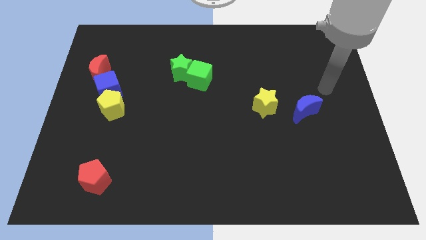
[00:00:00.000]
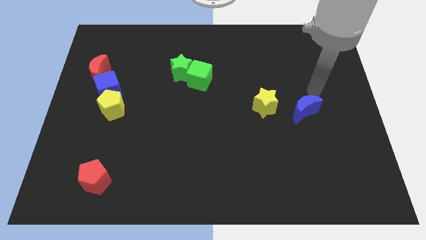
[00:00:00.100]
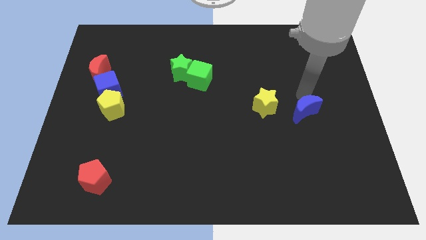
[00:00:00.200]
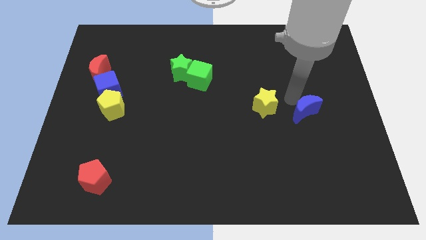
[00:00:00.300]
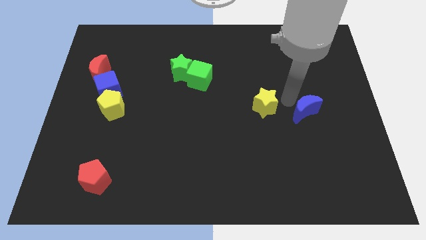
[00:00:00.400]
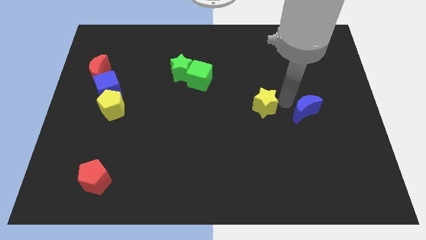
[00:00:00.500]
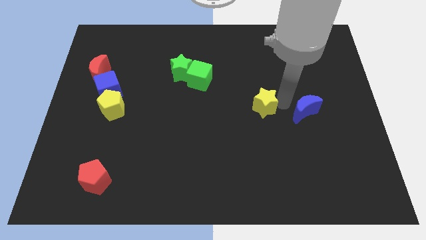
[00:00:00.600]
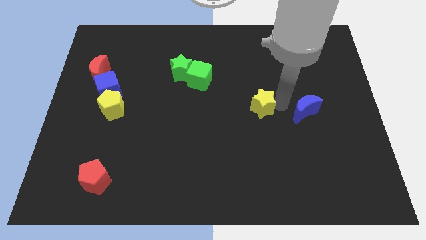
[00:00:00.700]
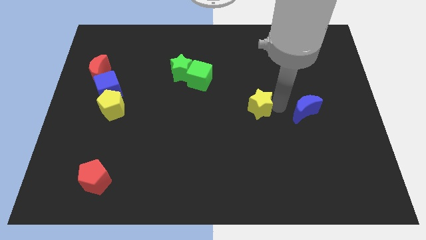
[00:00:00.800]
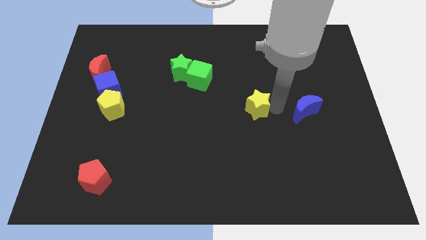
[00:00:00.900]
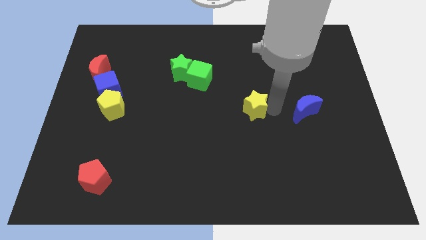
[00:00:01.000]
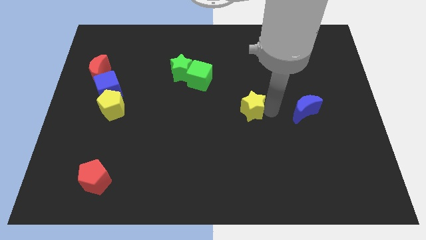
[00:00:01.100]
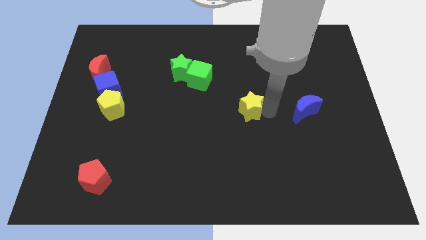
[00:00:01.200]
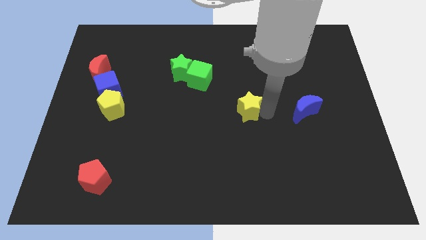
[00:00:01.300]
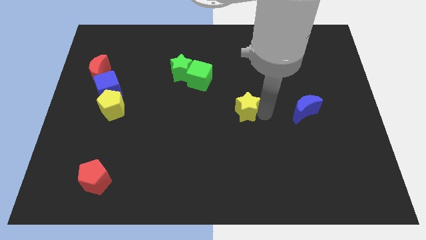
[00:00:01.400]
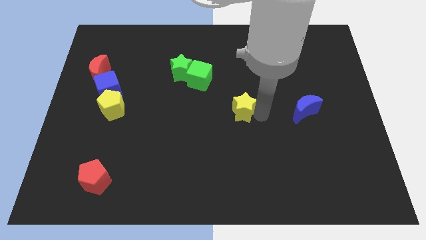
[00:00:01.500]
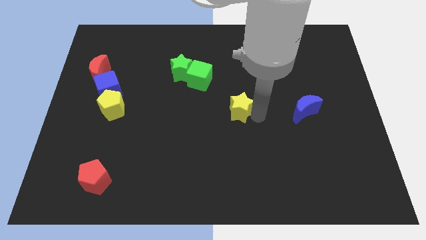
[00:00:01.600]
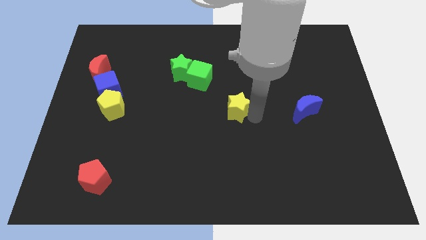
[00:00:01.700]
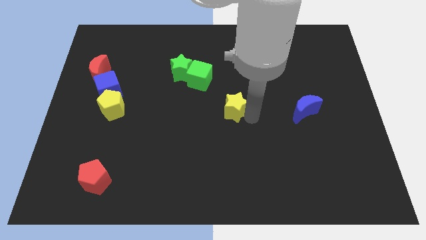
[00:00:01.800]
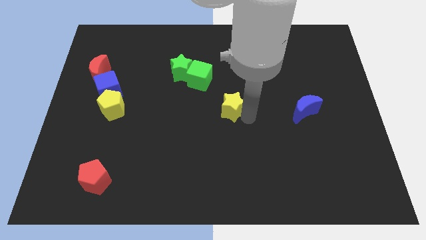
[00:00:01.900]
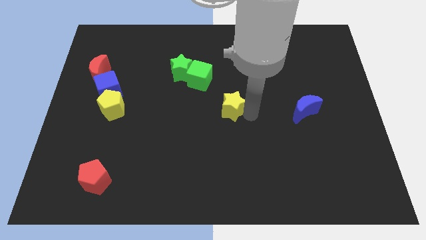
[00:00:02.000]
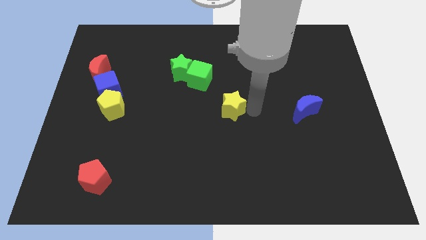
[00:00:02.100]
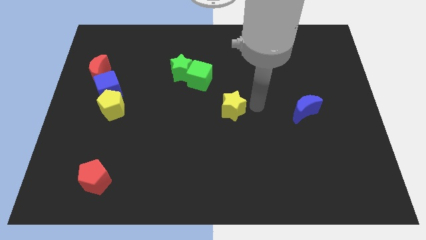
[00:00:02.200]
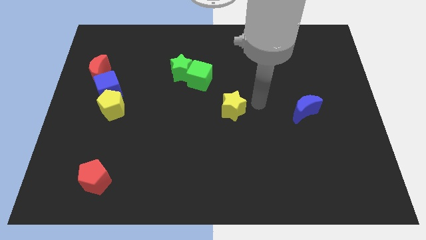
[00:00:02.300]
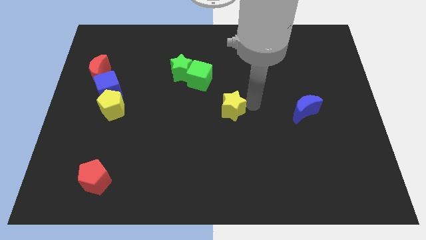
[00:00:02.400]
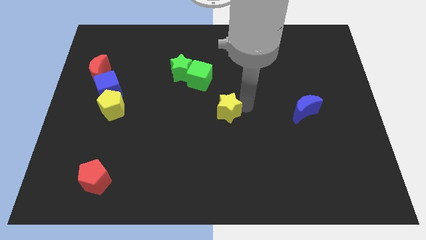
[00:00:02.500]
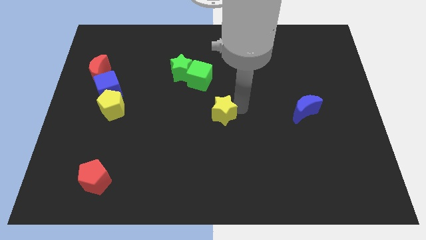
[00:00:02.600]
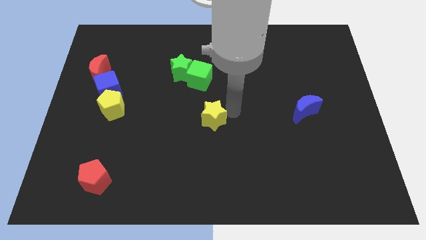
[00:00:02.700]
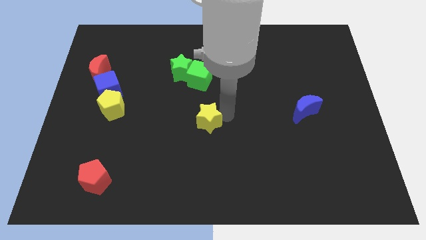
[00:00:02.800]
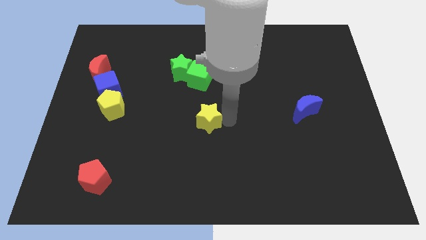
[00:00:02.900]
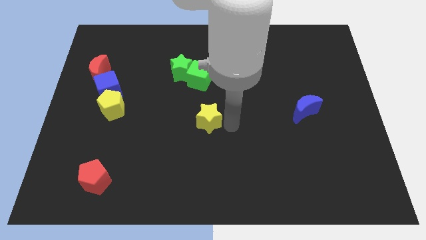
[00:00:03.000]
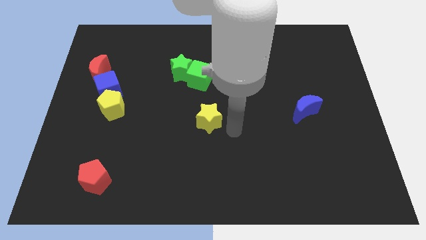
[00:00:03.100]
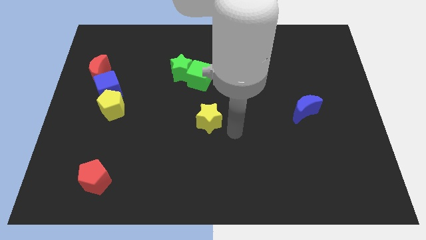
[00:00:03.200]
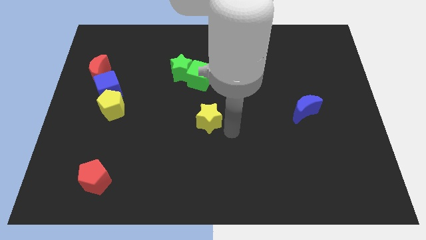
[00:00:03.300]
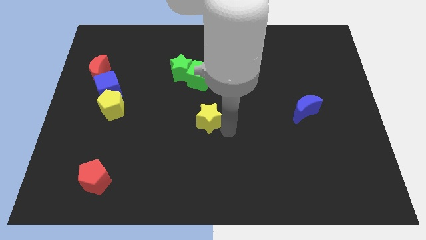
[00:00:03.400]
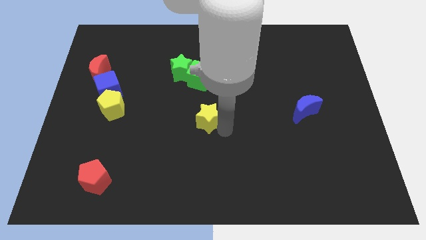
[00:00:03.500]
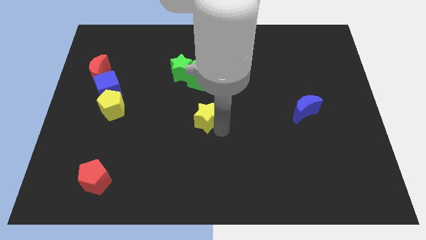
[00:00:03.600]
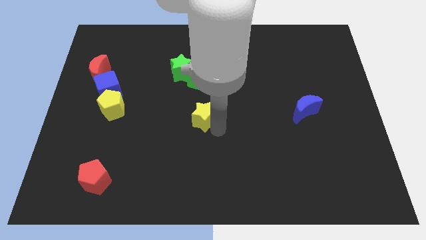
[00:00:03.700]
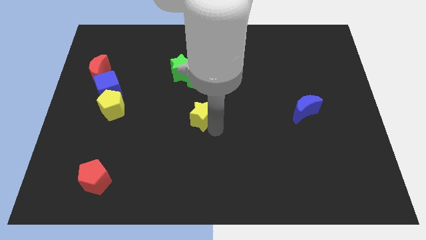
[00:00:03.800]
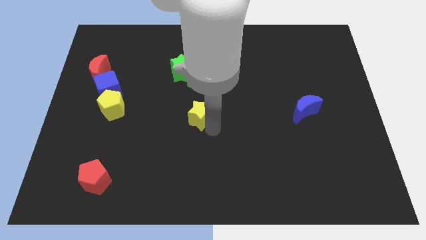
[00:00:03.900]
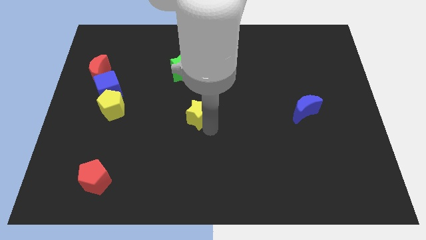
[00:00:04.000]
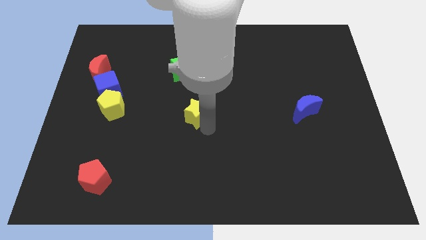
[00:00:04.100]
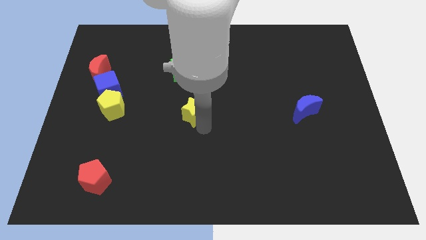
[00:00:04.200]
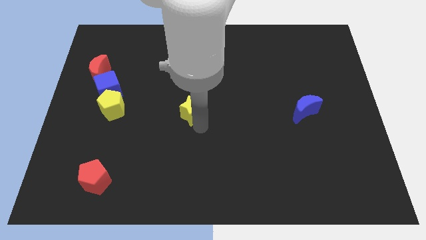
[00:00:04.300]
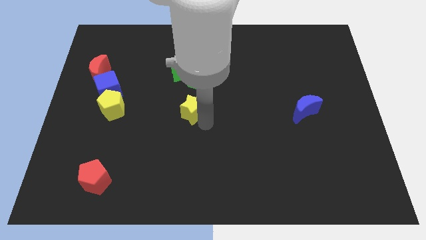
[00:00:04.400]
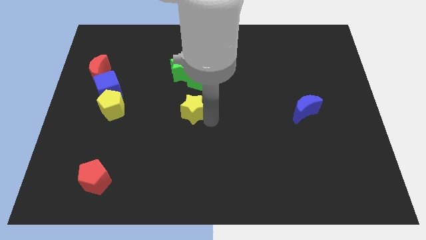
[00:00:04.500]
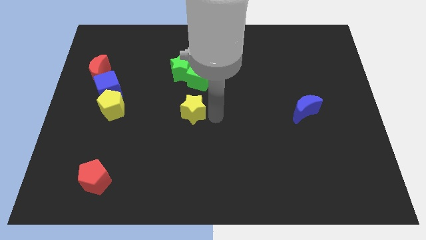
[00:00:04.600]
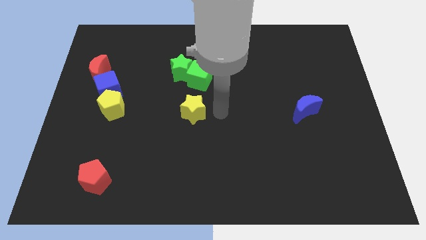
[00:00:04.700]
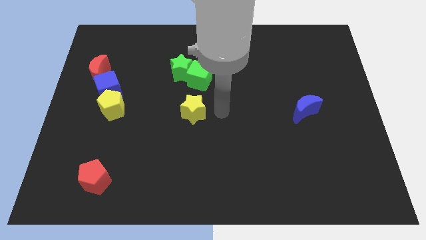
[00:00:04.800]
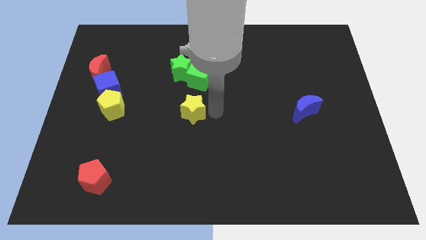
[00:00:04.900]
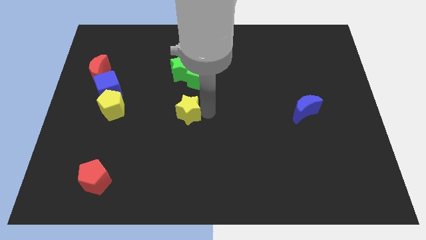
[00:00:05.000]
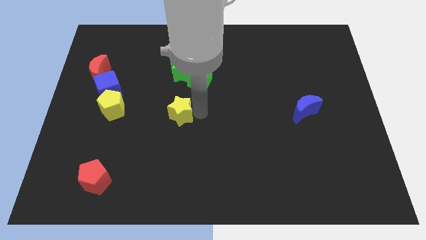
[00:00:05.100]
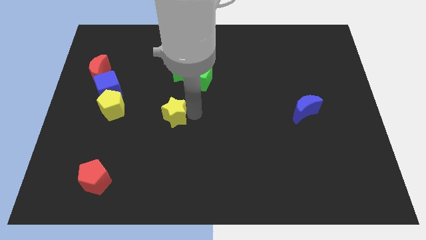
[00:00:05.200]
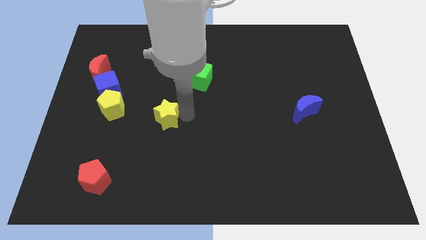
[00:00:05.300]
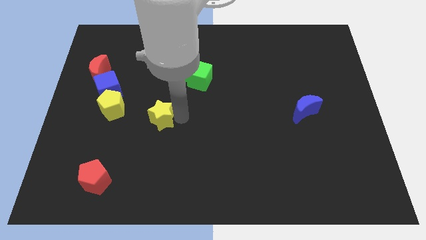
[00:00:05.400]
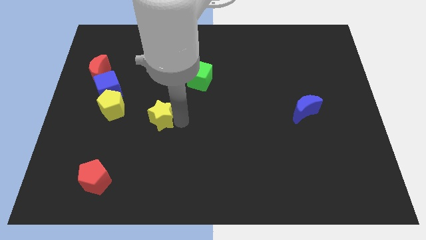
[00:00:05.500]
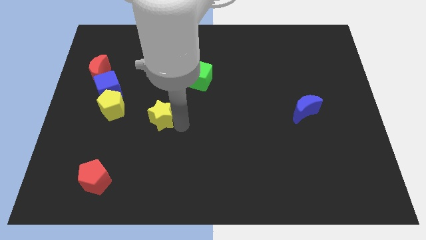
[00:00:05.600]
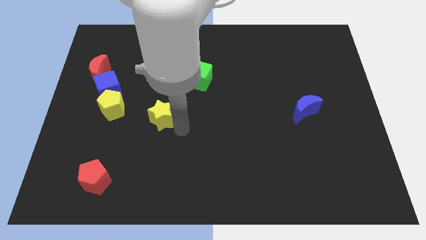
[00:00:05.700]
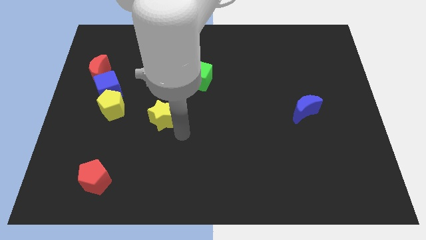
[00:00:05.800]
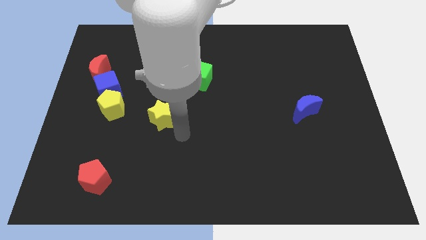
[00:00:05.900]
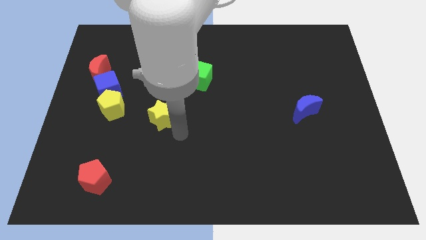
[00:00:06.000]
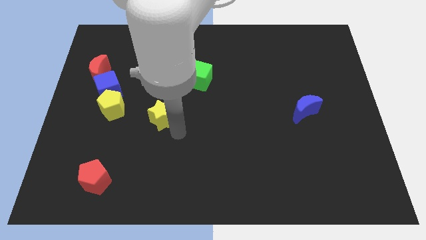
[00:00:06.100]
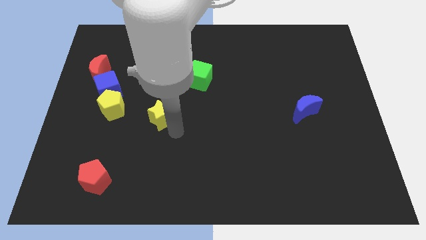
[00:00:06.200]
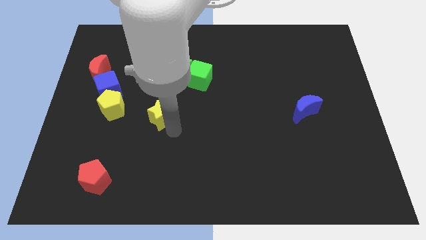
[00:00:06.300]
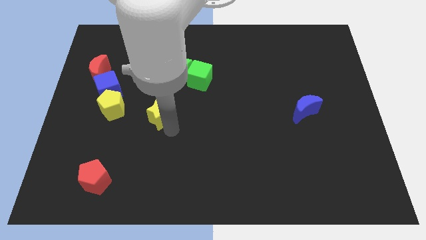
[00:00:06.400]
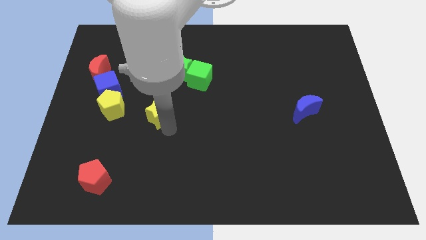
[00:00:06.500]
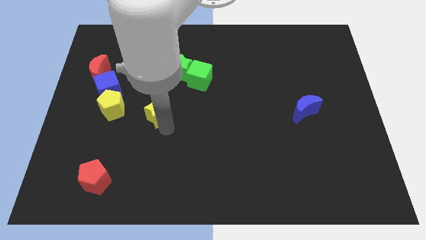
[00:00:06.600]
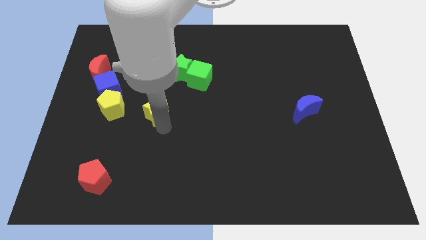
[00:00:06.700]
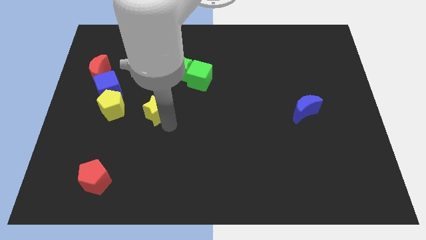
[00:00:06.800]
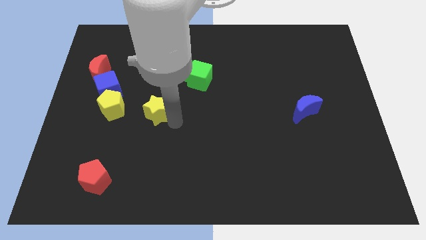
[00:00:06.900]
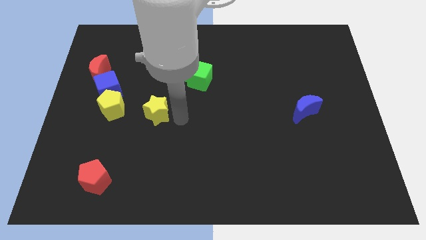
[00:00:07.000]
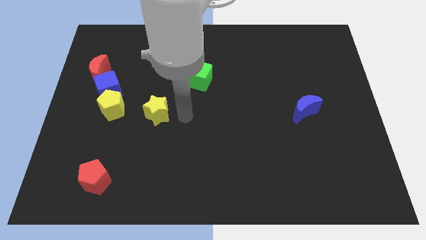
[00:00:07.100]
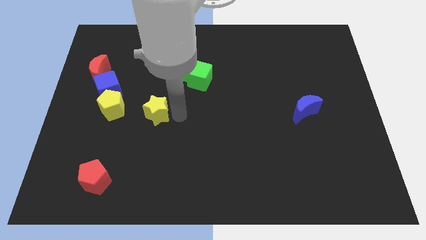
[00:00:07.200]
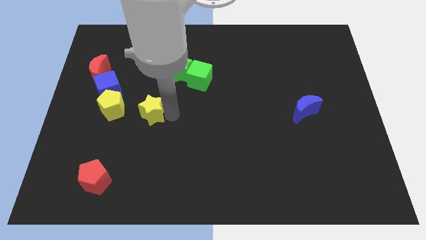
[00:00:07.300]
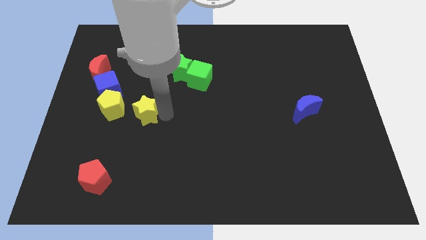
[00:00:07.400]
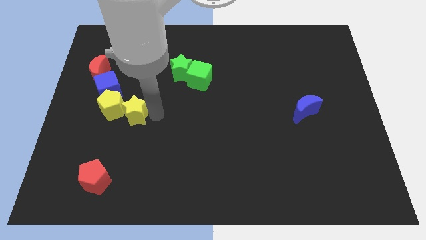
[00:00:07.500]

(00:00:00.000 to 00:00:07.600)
slide the yellow star close to the yellow pentagon
